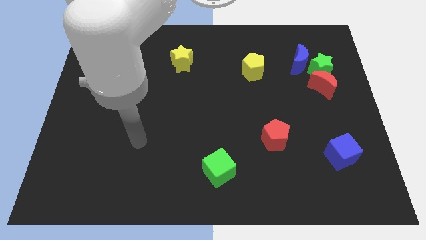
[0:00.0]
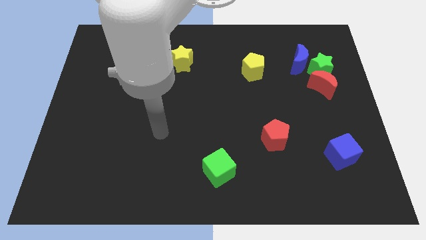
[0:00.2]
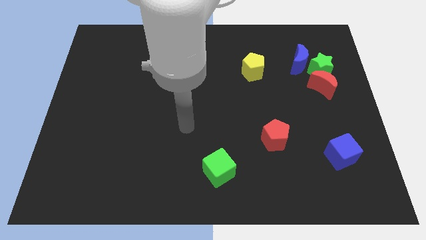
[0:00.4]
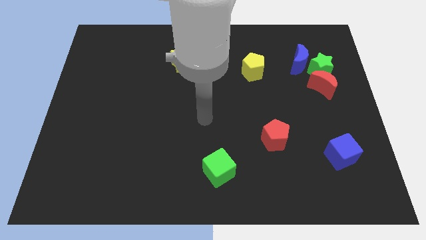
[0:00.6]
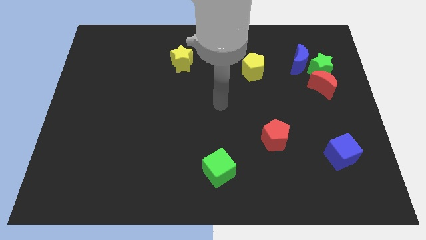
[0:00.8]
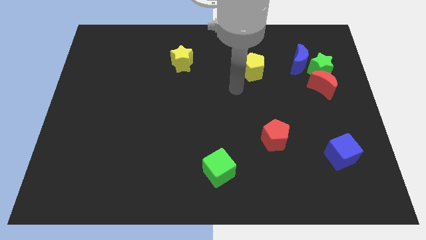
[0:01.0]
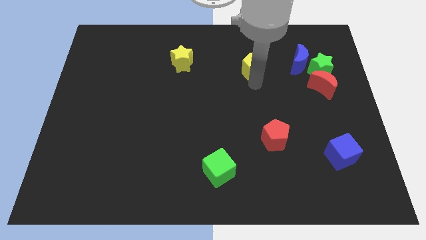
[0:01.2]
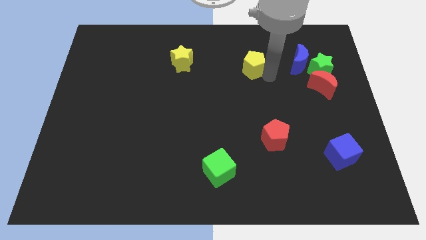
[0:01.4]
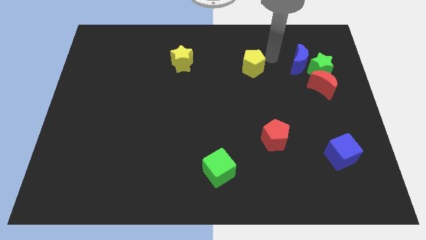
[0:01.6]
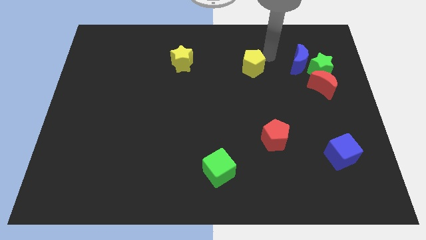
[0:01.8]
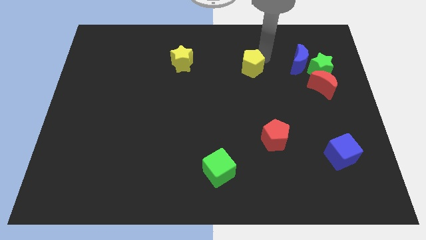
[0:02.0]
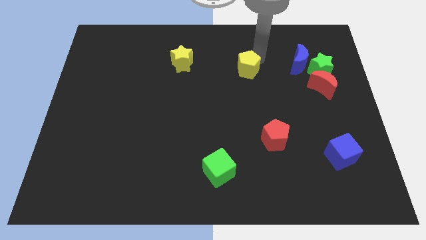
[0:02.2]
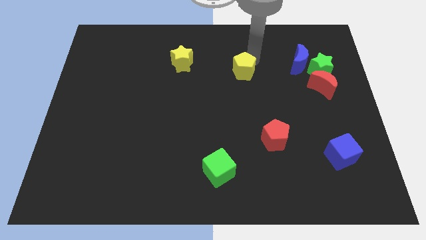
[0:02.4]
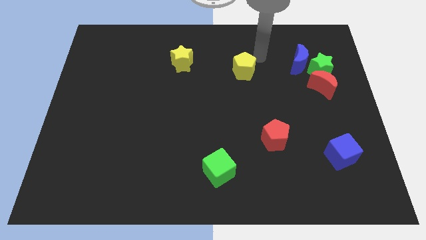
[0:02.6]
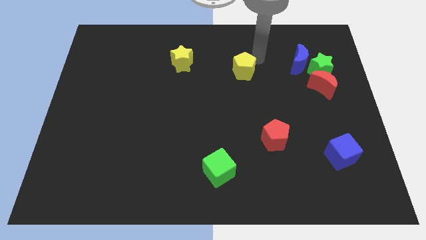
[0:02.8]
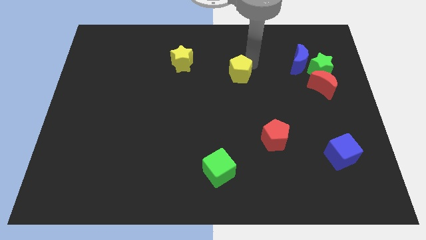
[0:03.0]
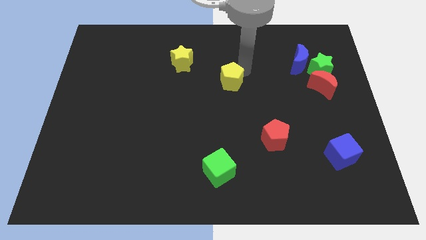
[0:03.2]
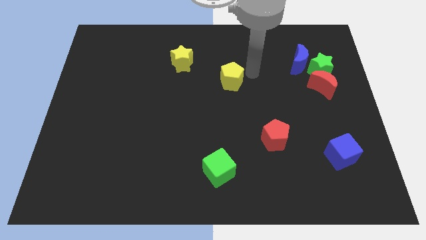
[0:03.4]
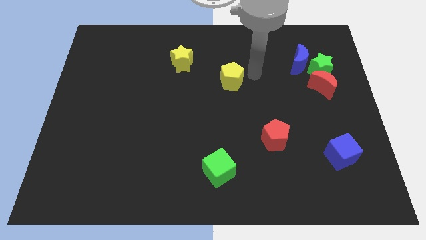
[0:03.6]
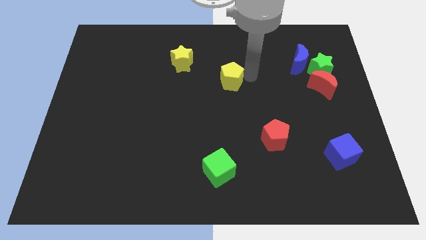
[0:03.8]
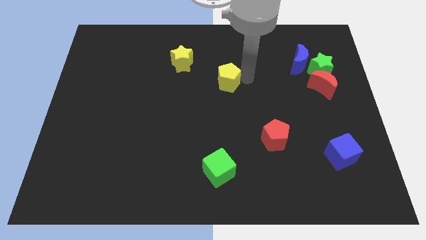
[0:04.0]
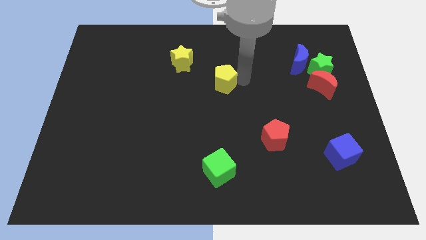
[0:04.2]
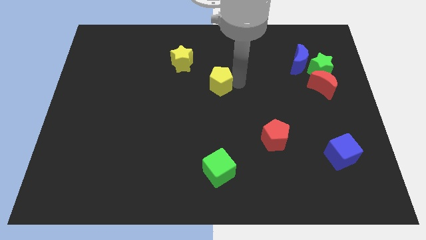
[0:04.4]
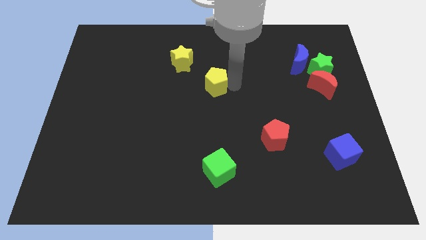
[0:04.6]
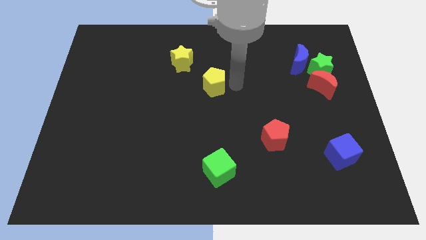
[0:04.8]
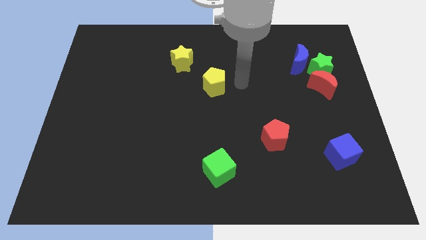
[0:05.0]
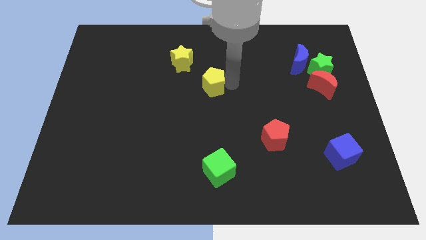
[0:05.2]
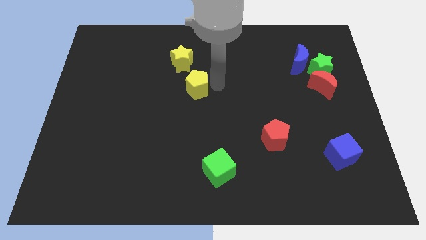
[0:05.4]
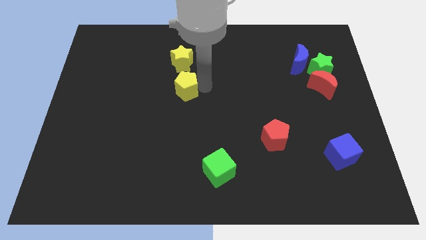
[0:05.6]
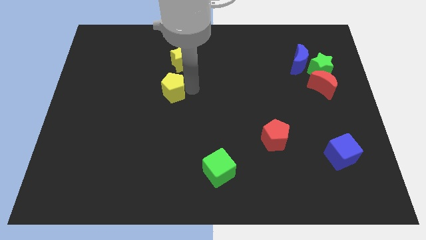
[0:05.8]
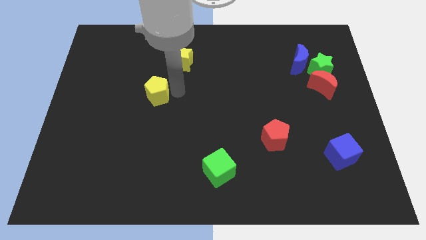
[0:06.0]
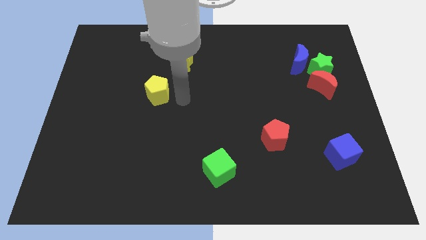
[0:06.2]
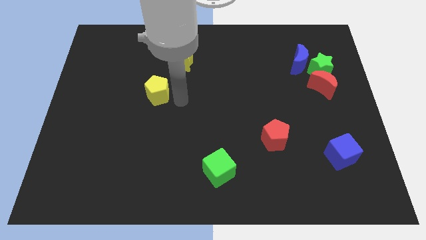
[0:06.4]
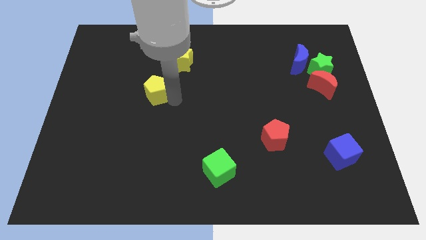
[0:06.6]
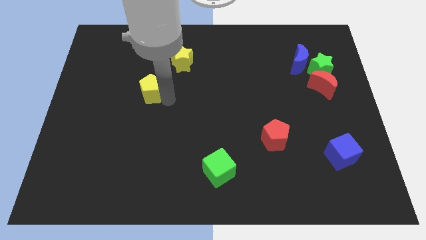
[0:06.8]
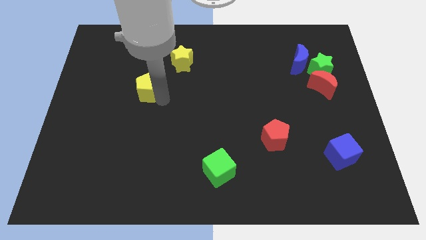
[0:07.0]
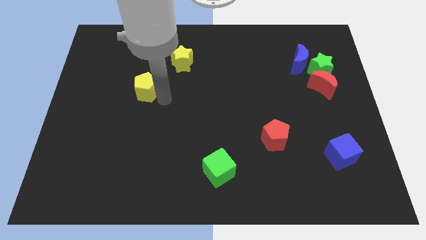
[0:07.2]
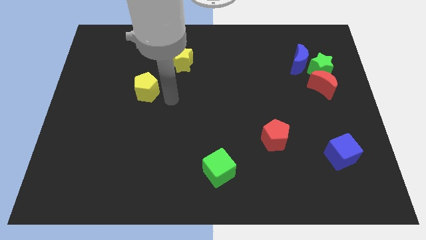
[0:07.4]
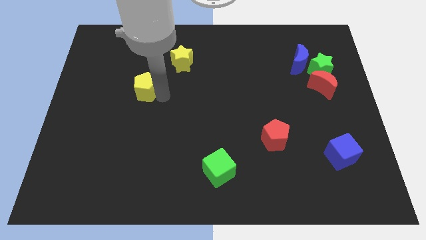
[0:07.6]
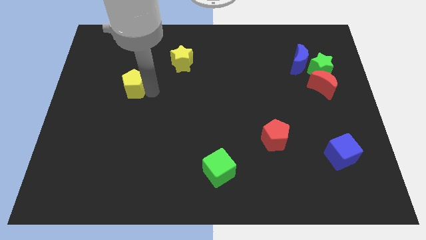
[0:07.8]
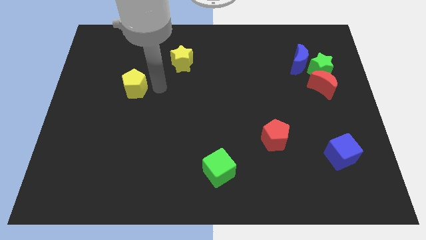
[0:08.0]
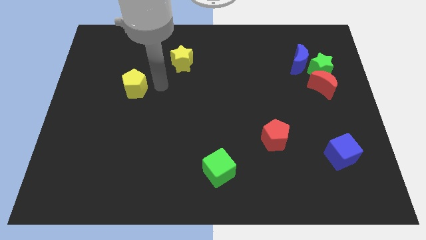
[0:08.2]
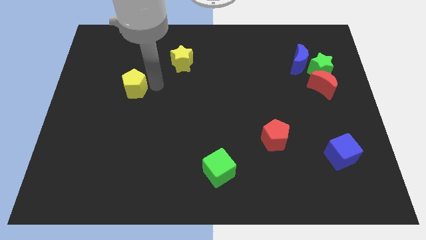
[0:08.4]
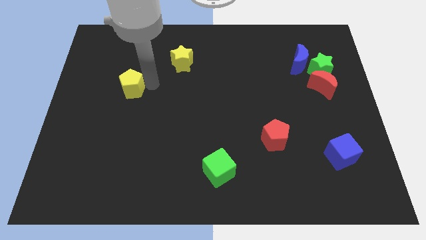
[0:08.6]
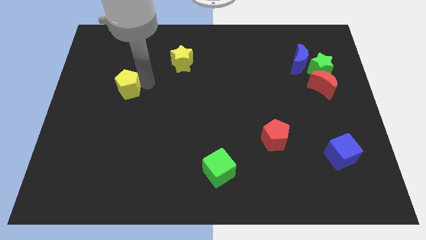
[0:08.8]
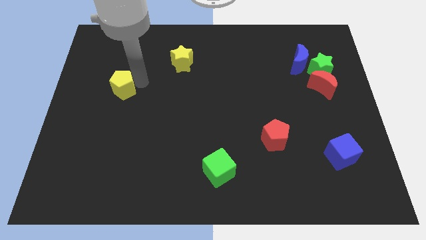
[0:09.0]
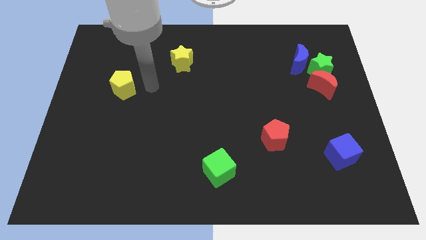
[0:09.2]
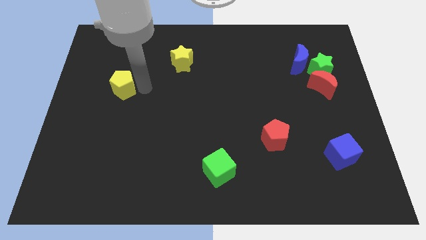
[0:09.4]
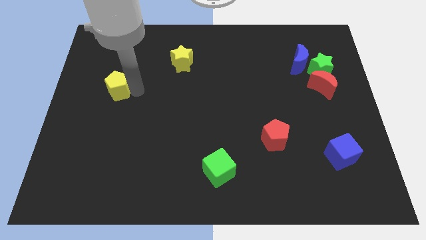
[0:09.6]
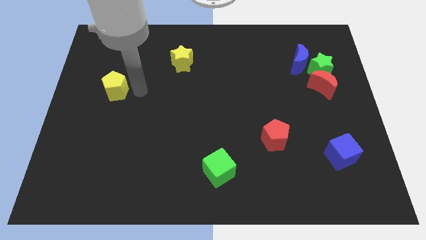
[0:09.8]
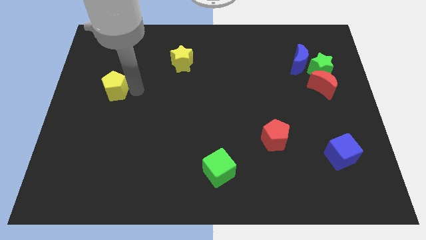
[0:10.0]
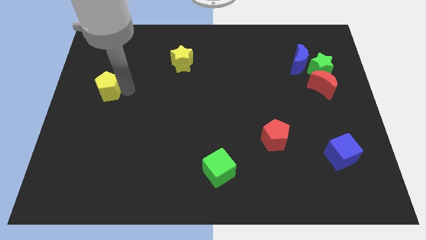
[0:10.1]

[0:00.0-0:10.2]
push the yellow pentagon to the center left
